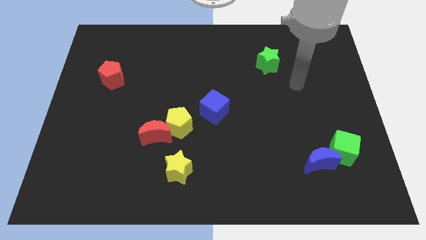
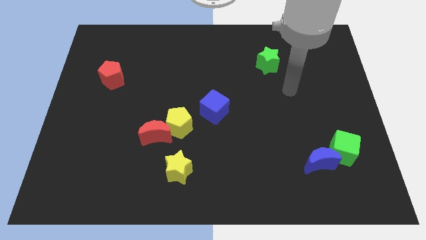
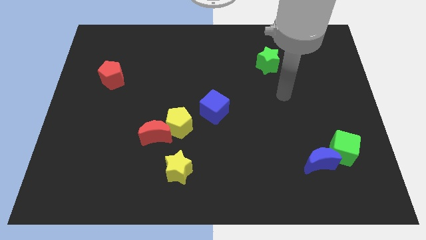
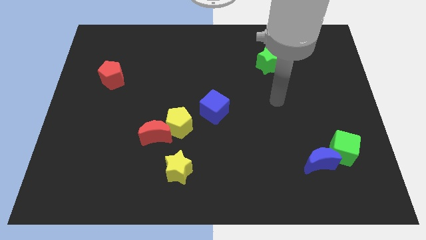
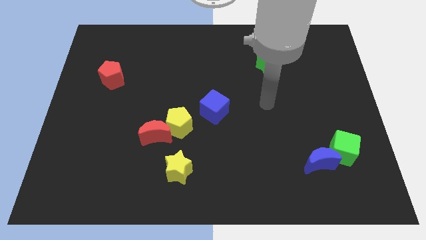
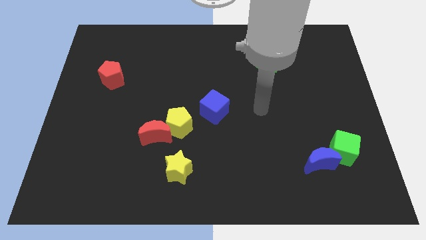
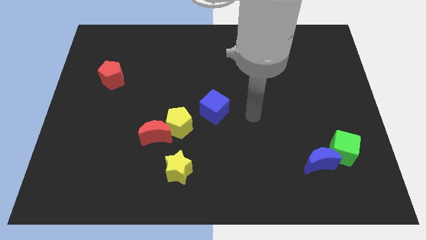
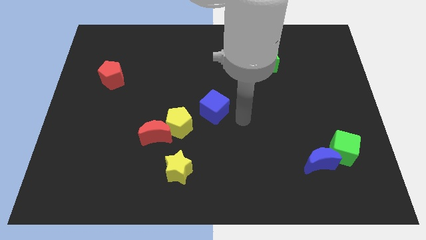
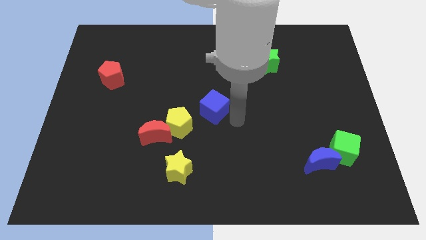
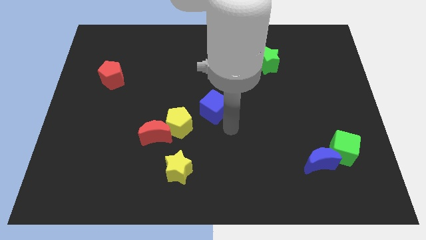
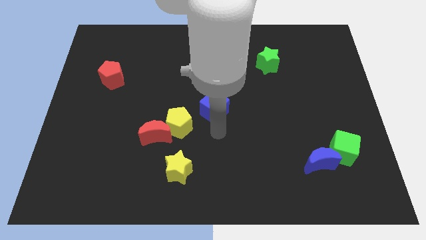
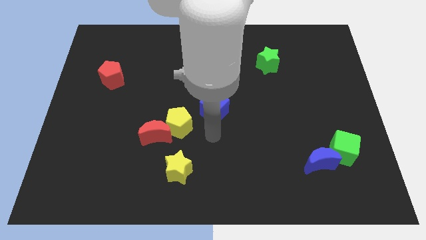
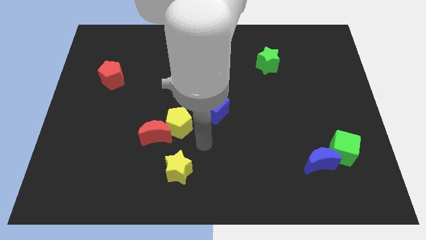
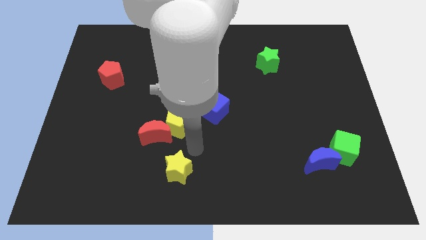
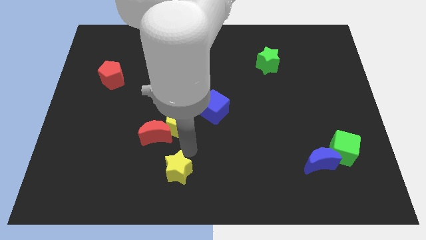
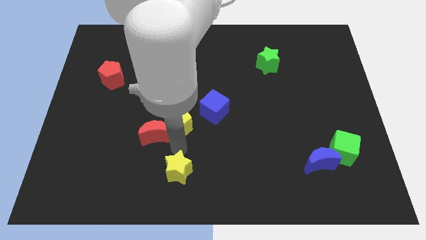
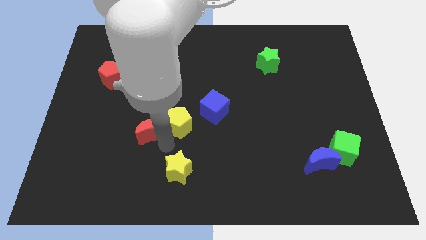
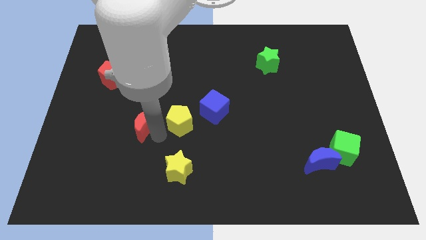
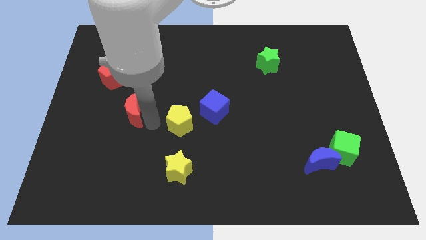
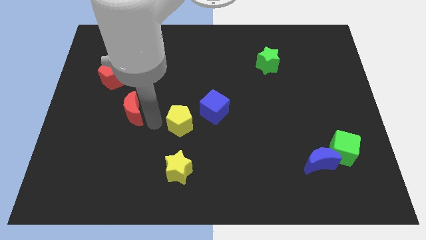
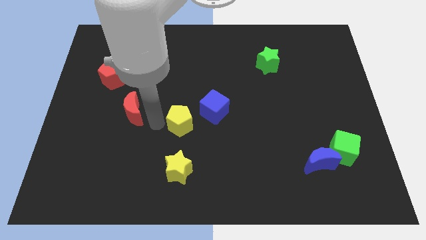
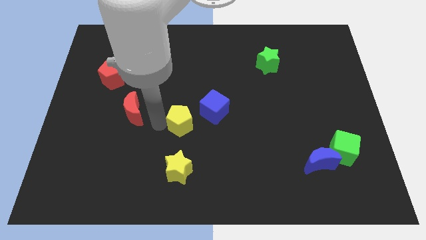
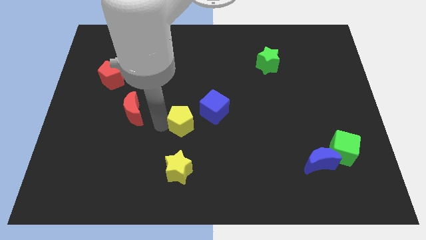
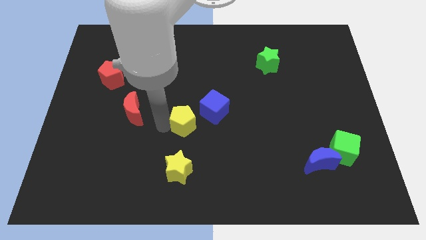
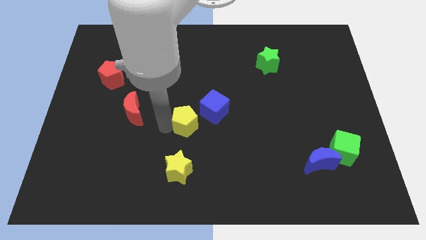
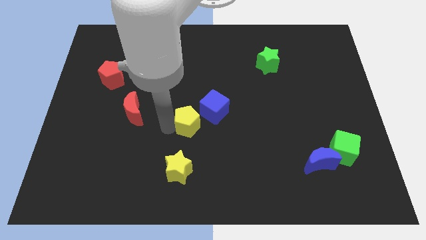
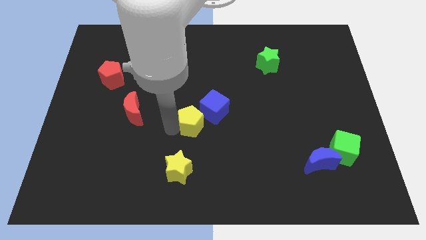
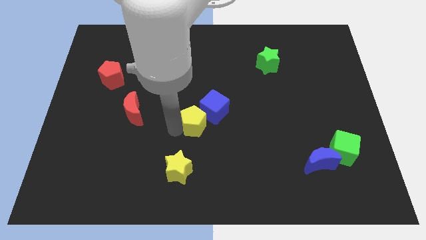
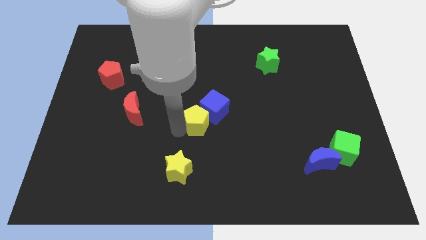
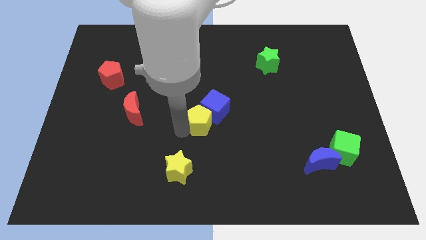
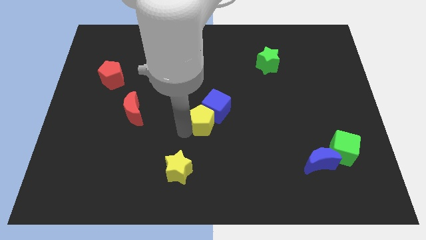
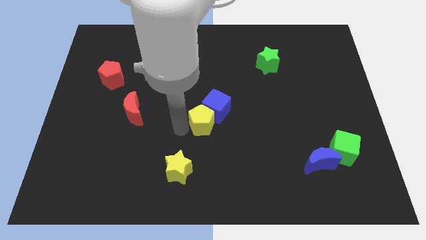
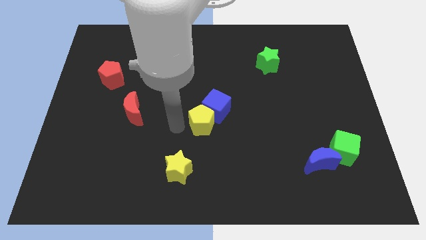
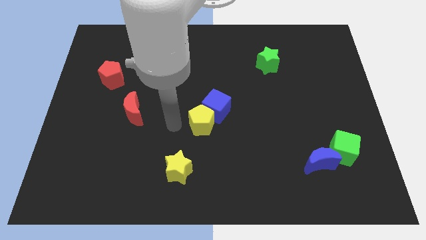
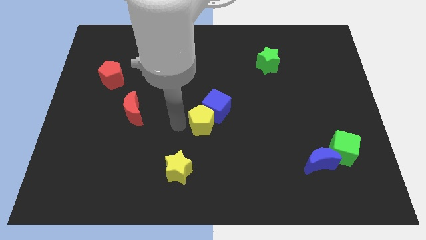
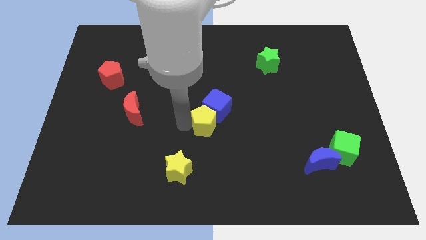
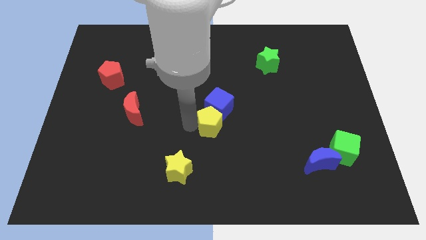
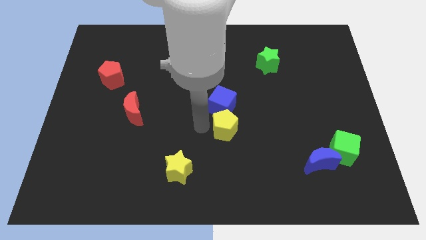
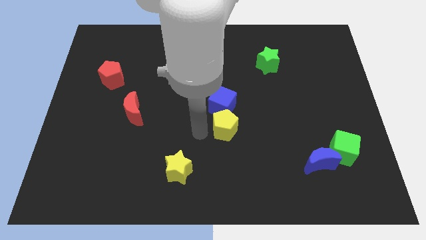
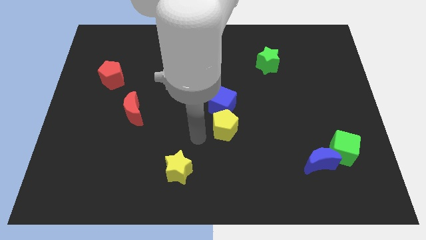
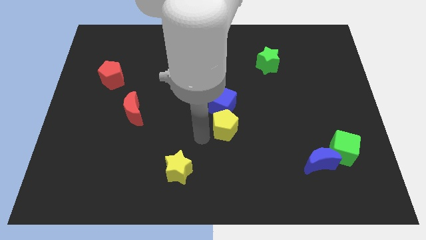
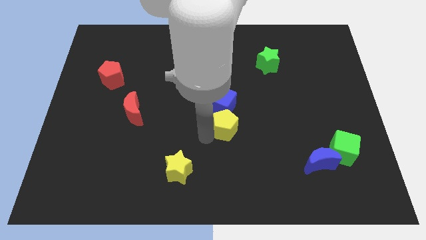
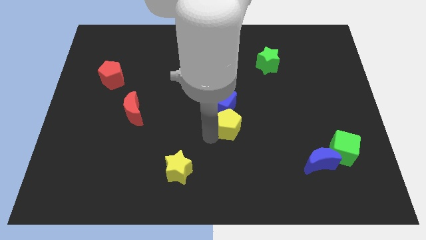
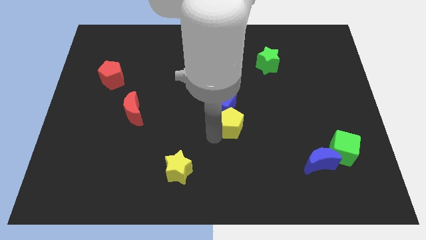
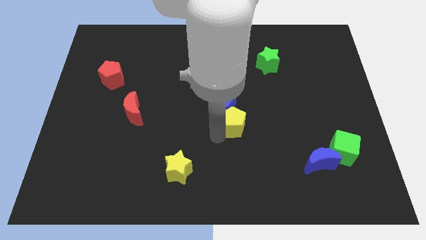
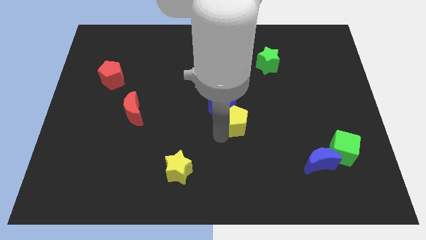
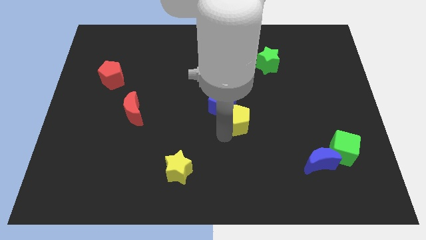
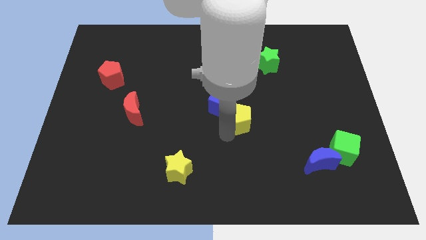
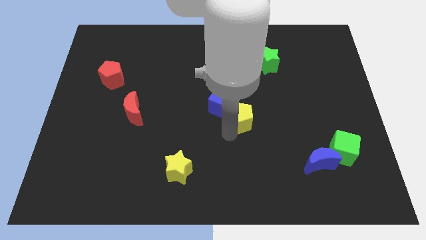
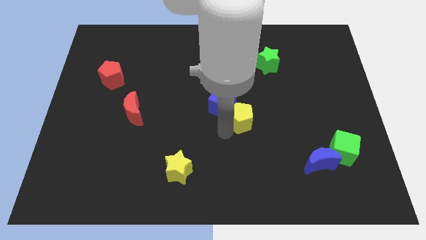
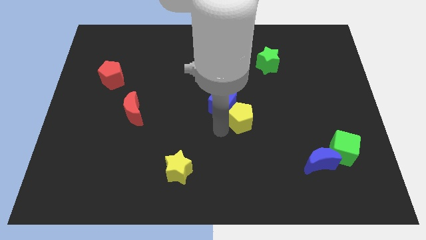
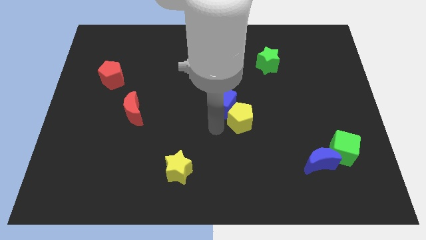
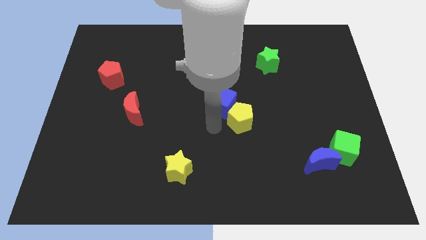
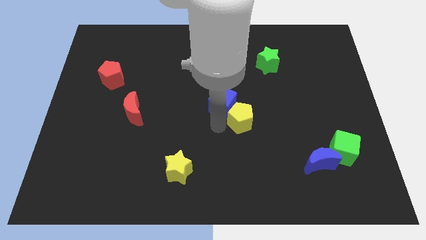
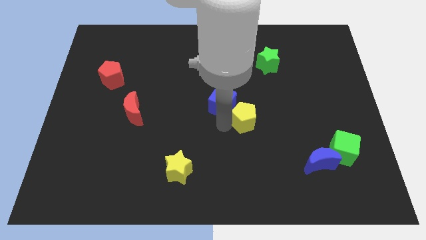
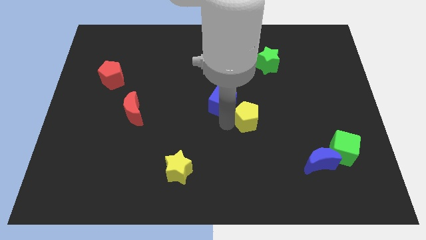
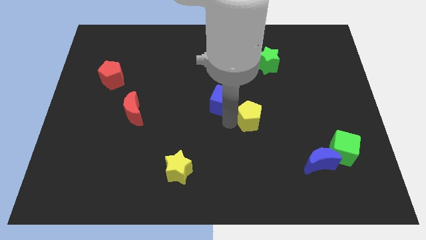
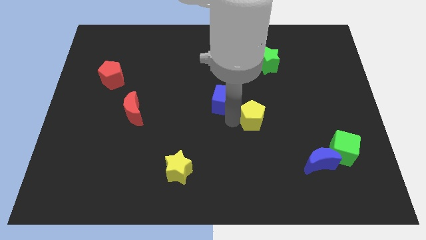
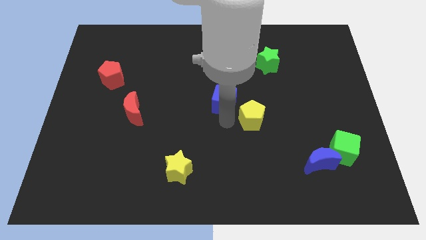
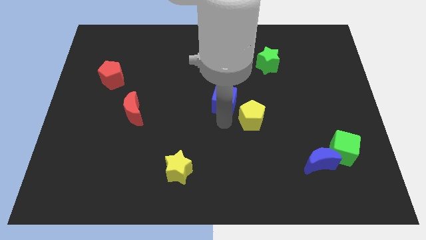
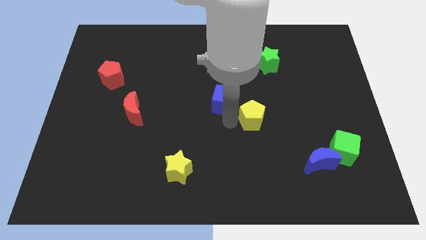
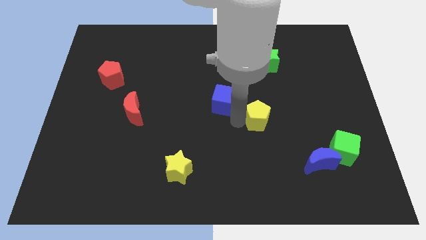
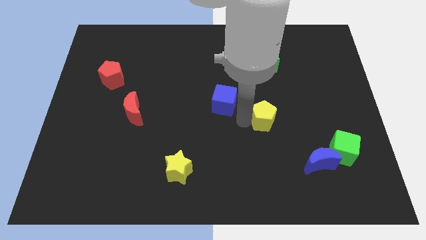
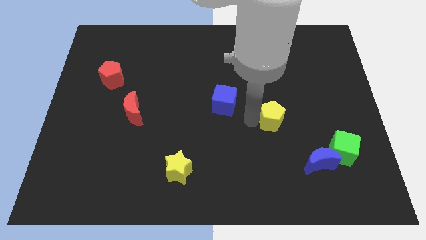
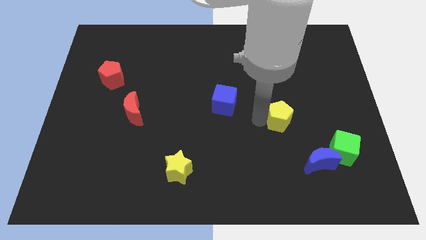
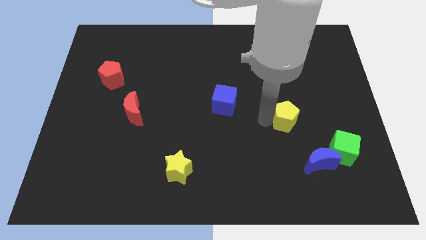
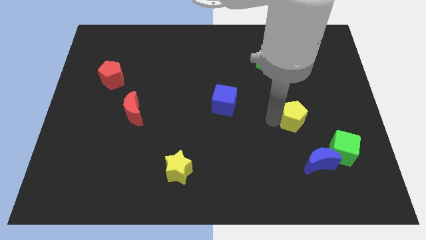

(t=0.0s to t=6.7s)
push the yellow pentagon to the top side of the blue moon

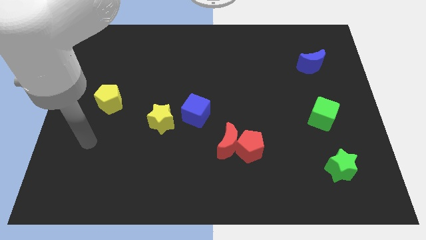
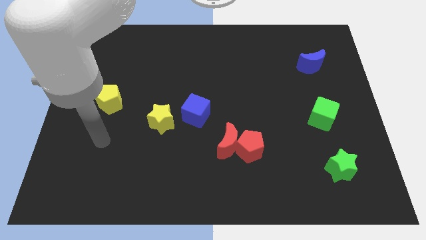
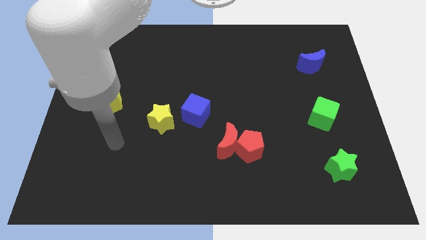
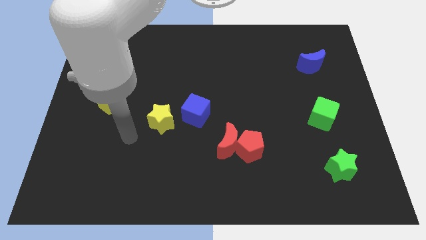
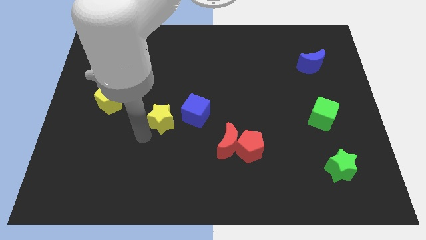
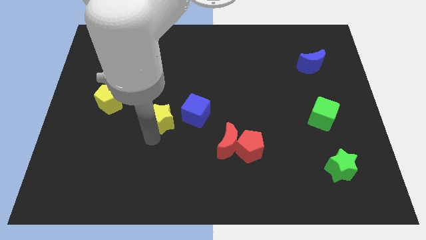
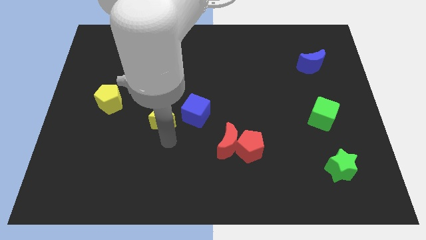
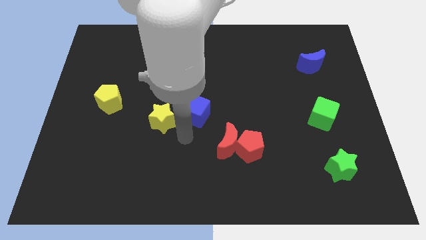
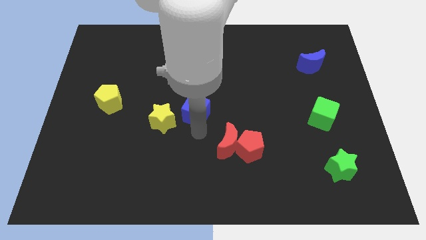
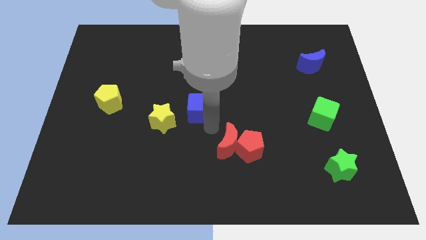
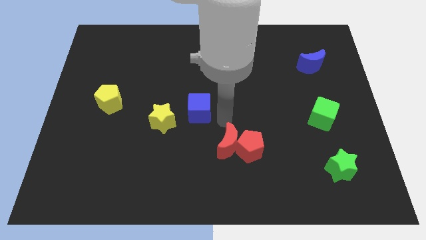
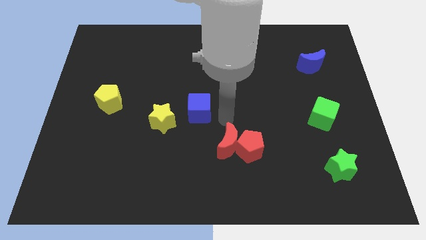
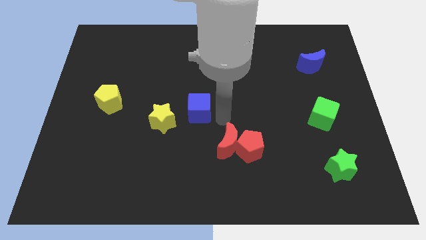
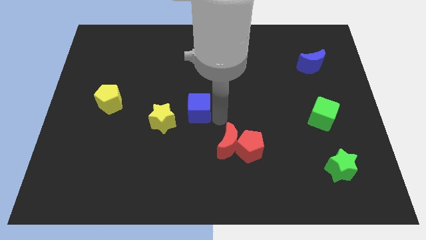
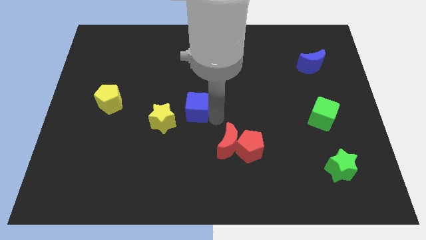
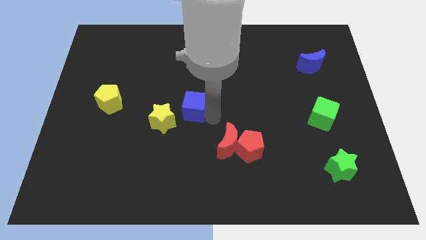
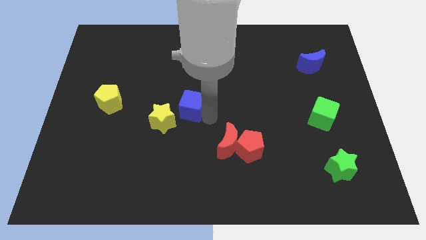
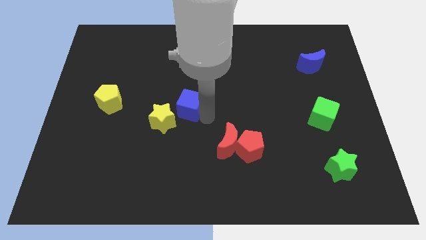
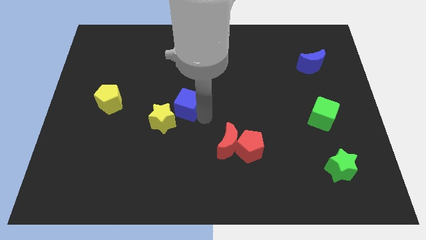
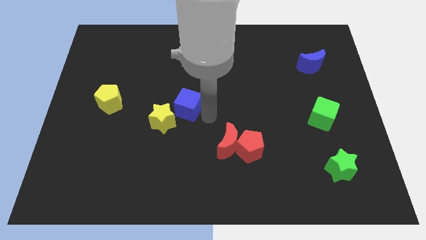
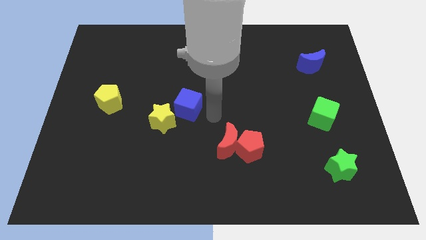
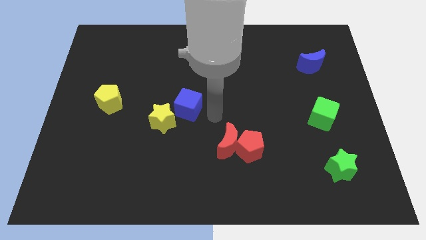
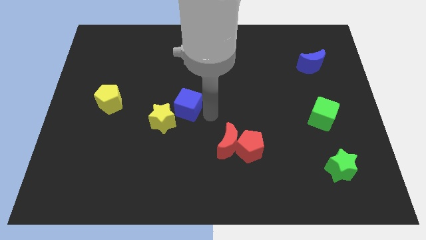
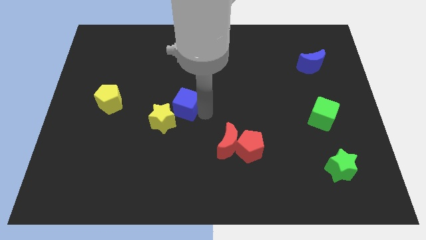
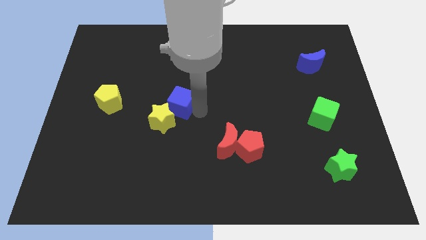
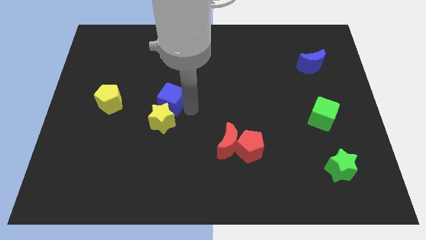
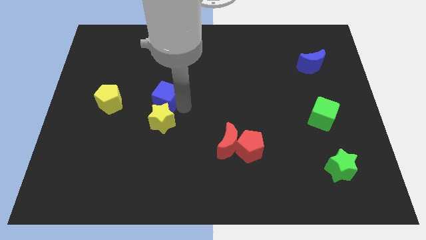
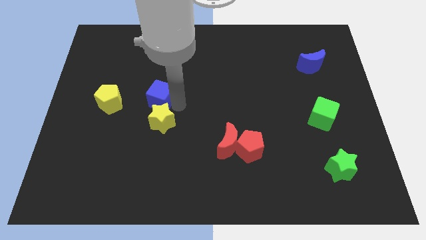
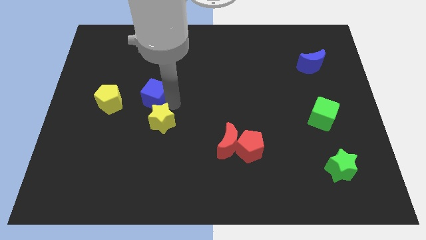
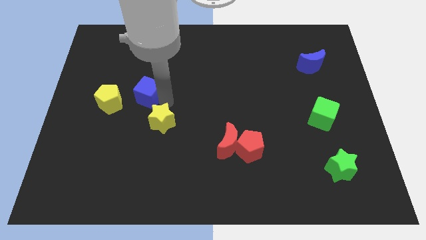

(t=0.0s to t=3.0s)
put the blue cube diagonally up and to the right of the yellow pentagon
